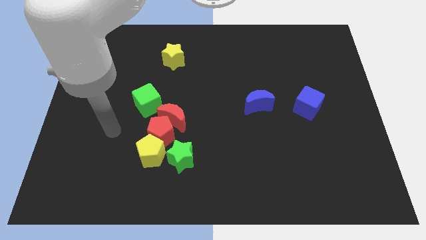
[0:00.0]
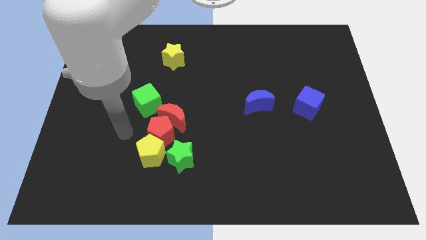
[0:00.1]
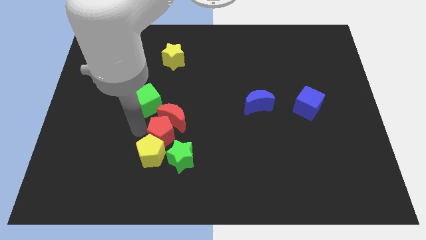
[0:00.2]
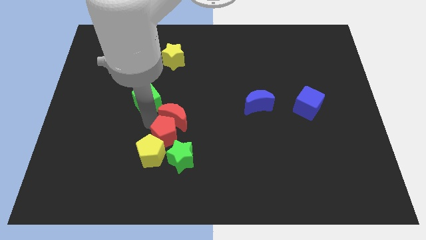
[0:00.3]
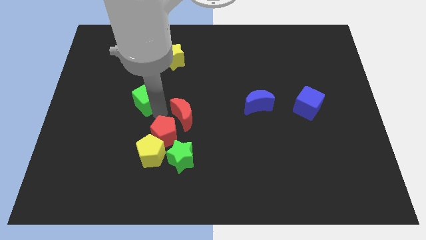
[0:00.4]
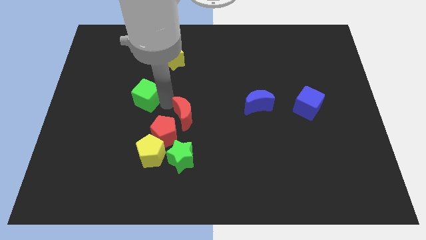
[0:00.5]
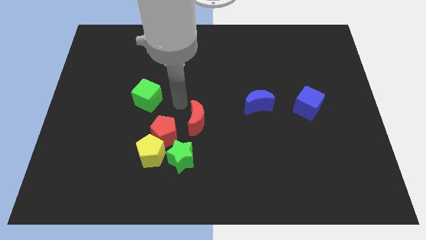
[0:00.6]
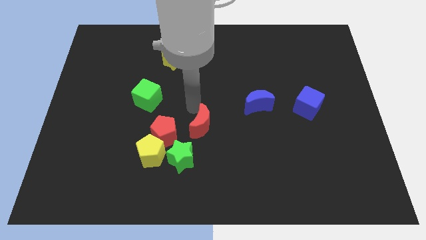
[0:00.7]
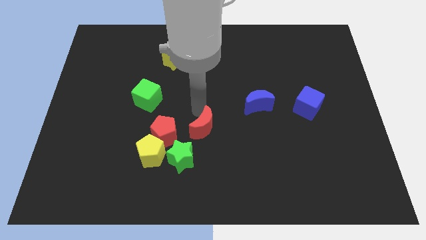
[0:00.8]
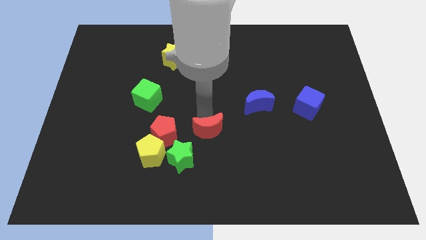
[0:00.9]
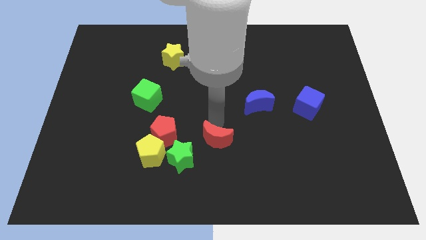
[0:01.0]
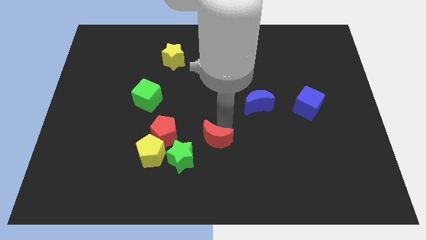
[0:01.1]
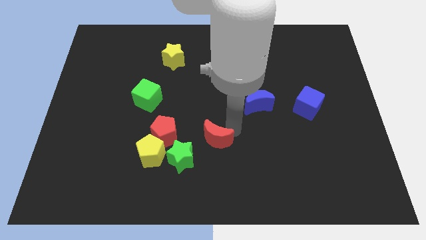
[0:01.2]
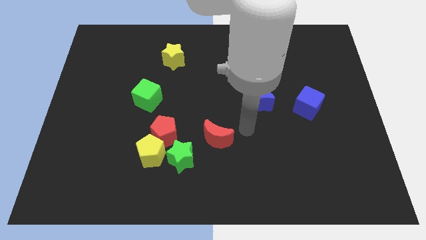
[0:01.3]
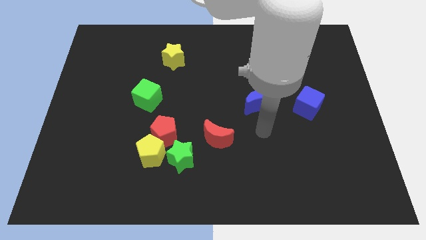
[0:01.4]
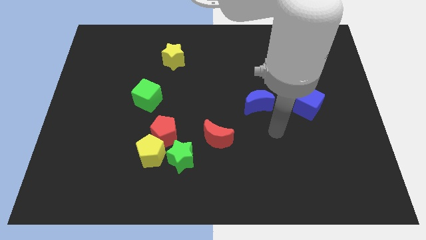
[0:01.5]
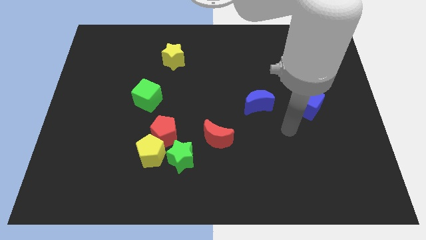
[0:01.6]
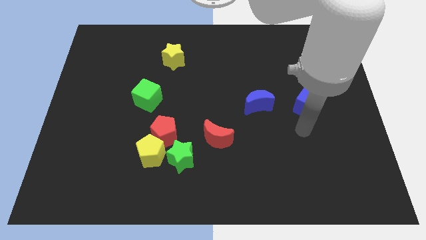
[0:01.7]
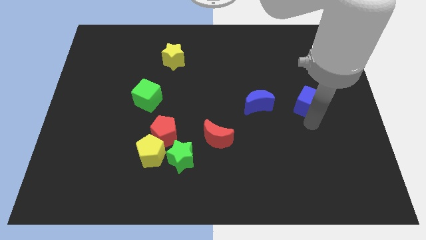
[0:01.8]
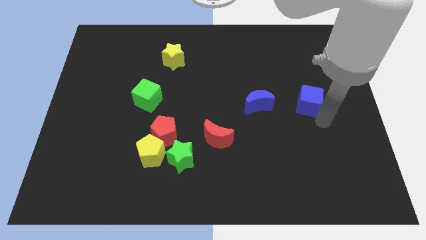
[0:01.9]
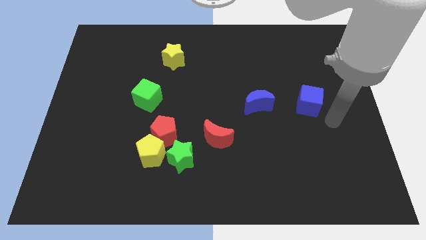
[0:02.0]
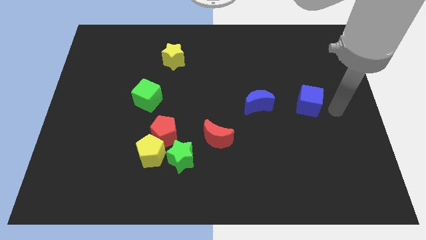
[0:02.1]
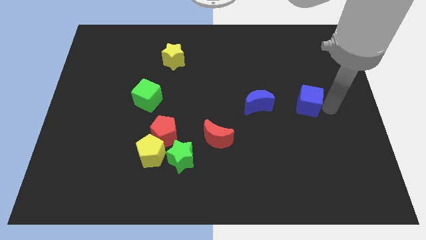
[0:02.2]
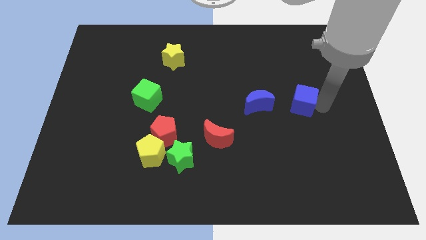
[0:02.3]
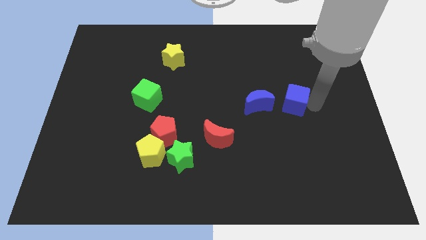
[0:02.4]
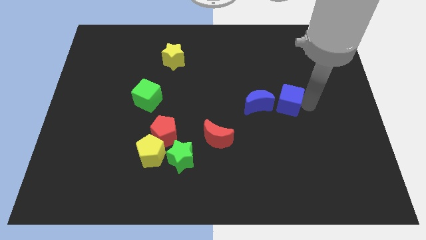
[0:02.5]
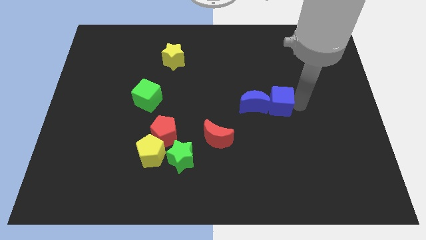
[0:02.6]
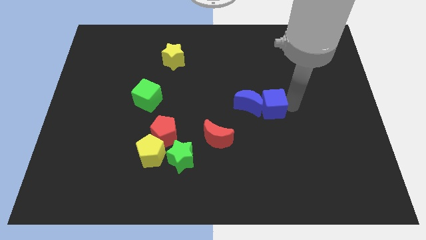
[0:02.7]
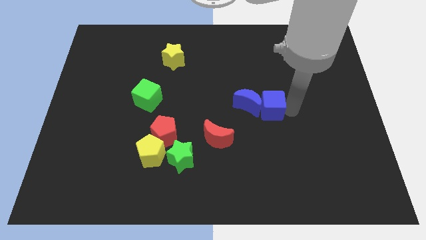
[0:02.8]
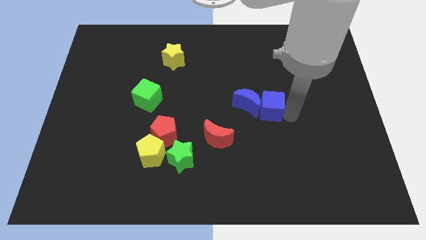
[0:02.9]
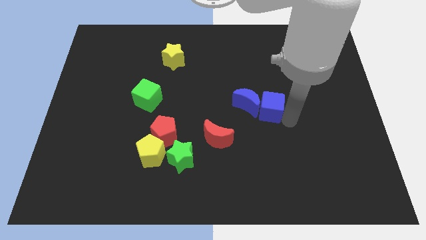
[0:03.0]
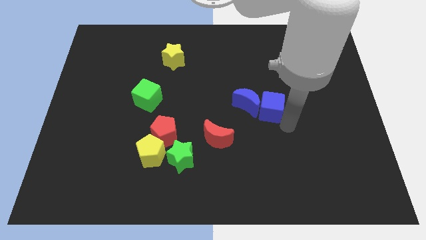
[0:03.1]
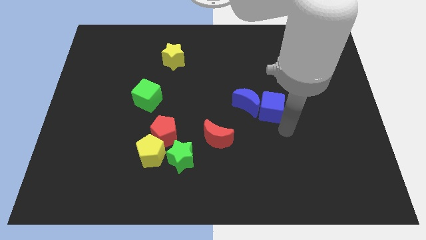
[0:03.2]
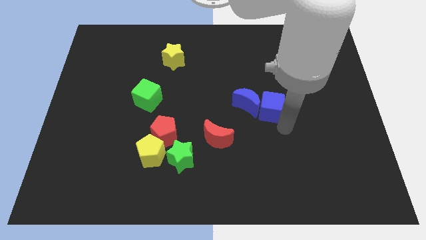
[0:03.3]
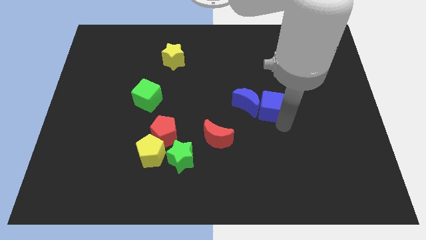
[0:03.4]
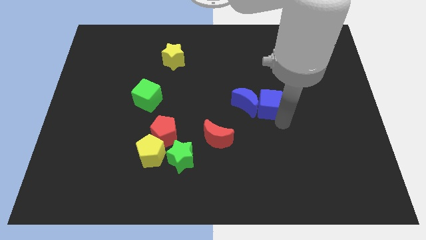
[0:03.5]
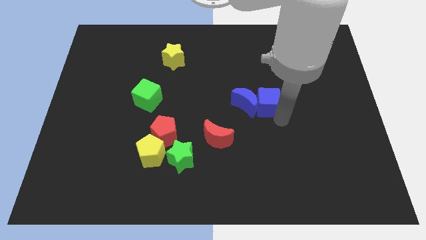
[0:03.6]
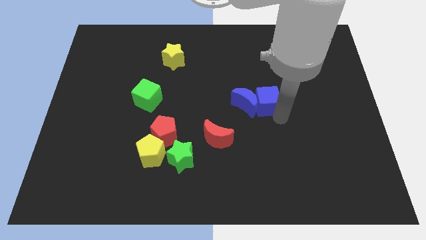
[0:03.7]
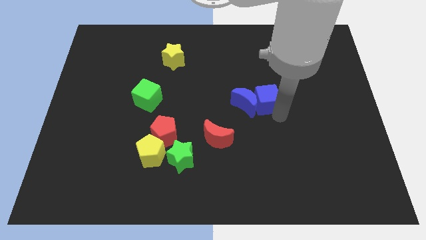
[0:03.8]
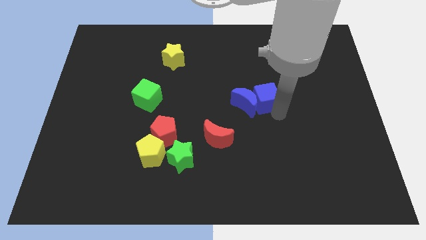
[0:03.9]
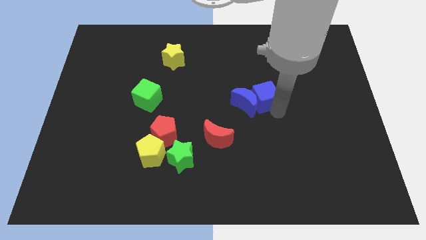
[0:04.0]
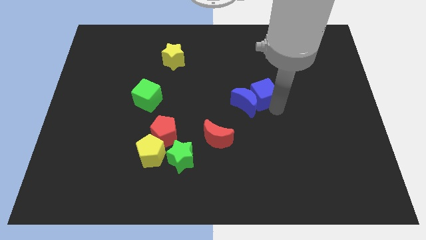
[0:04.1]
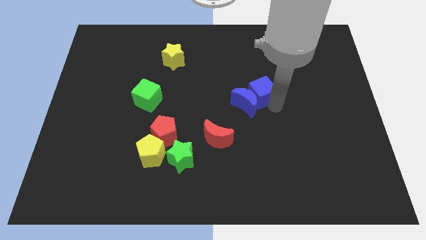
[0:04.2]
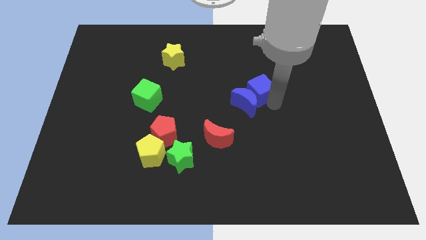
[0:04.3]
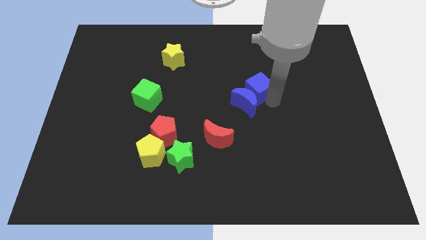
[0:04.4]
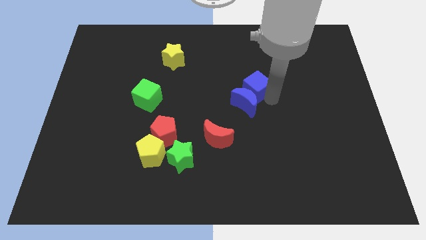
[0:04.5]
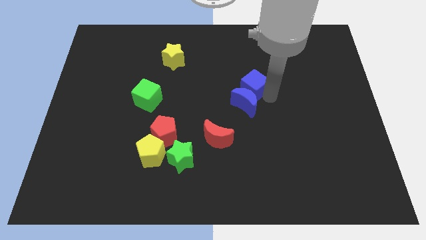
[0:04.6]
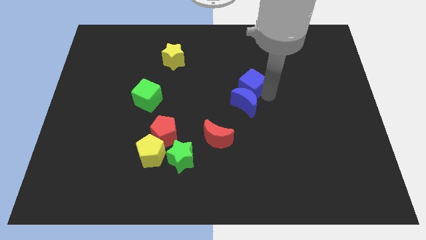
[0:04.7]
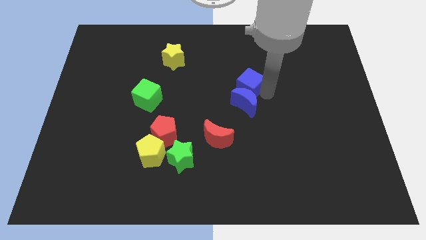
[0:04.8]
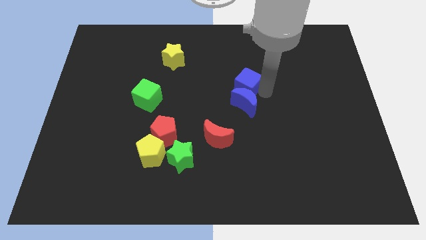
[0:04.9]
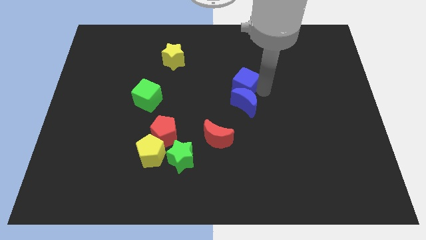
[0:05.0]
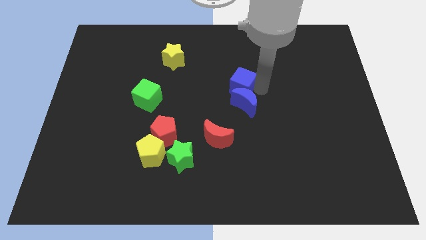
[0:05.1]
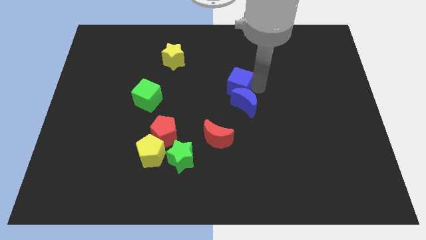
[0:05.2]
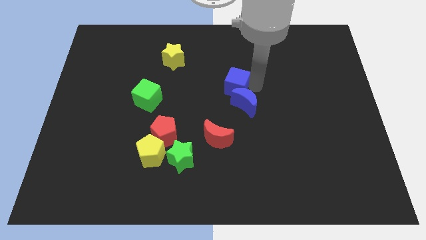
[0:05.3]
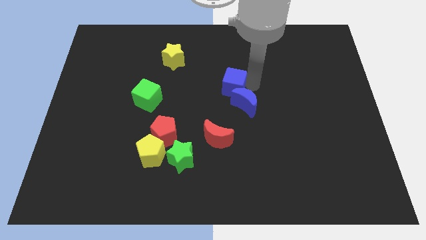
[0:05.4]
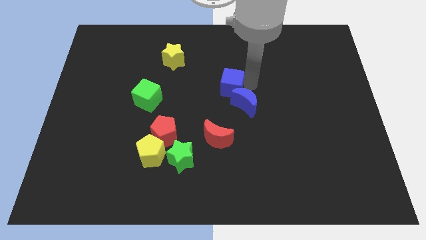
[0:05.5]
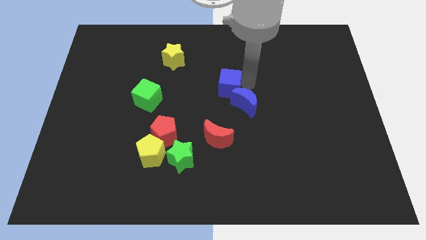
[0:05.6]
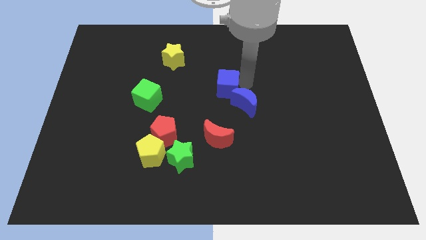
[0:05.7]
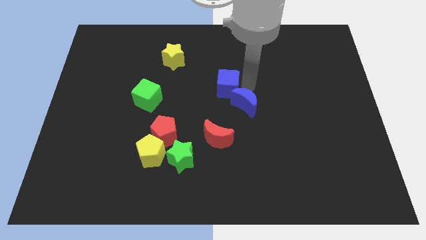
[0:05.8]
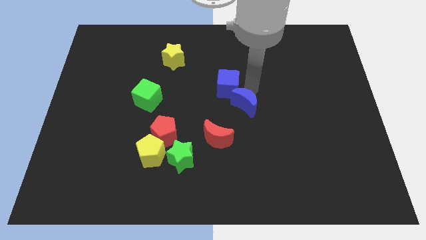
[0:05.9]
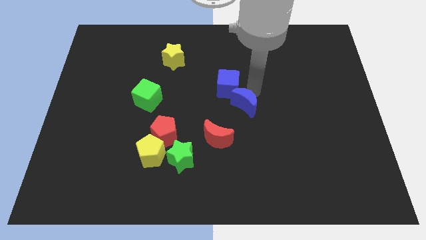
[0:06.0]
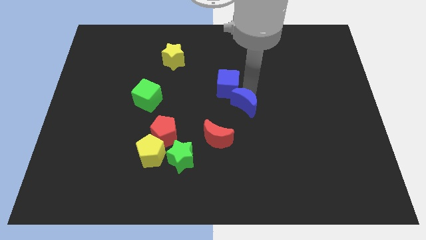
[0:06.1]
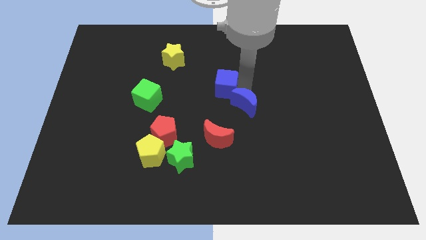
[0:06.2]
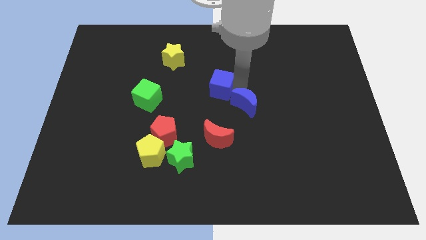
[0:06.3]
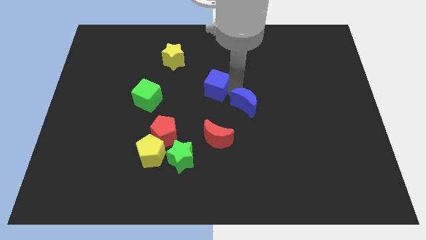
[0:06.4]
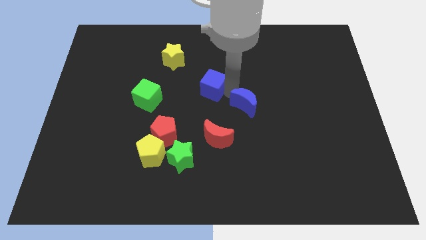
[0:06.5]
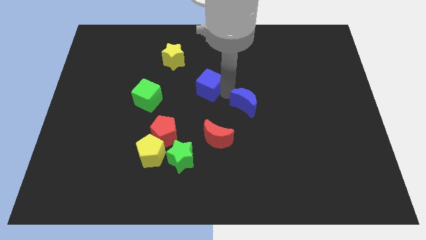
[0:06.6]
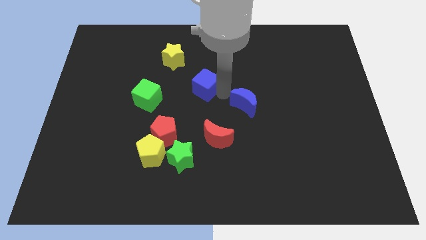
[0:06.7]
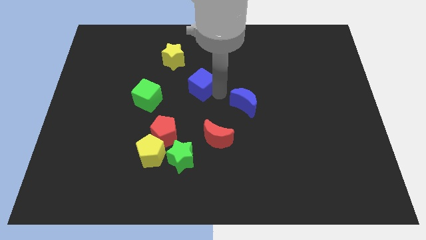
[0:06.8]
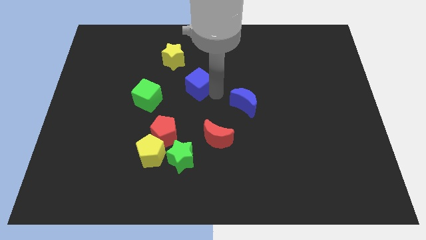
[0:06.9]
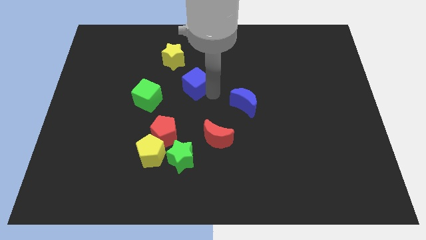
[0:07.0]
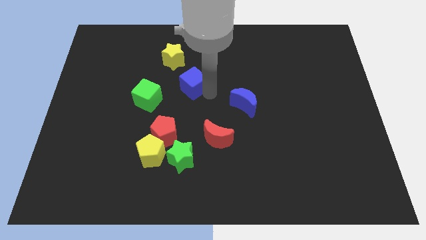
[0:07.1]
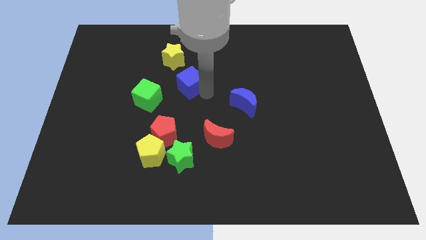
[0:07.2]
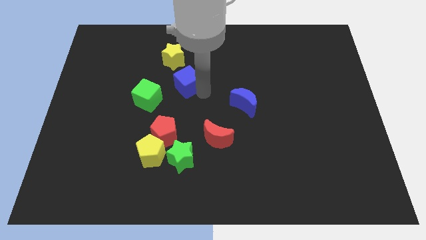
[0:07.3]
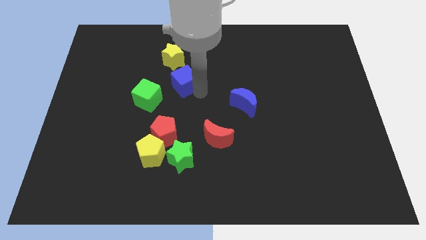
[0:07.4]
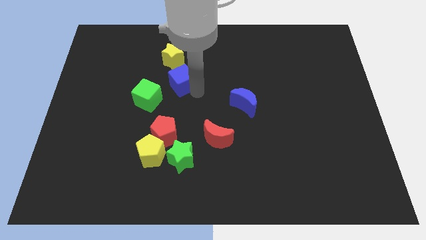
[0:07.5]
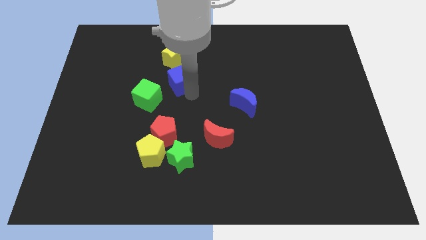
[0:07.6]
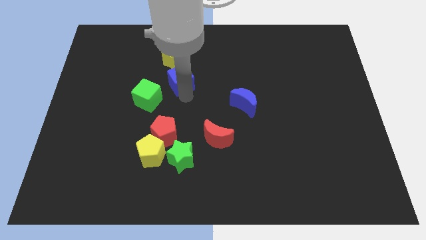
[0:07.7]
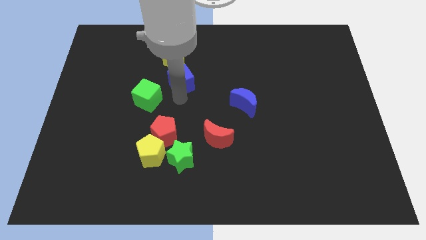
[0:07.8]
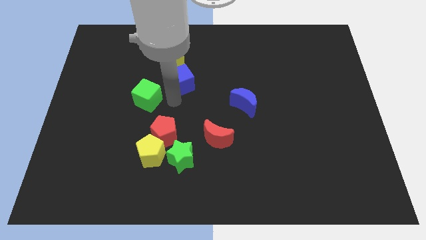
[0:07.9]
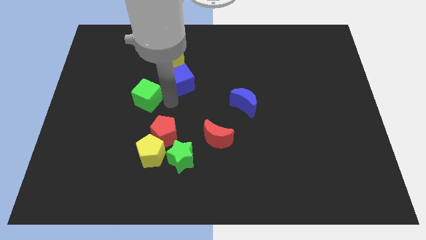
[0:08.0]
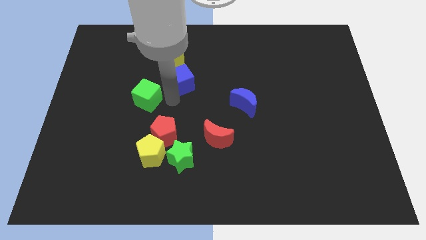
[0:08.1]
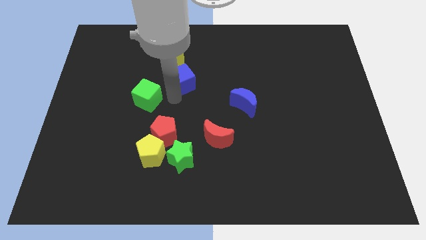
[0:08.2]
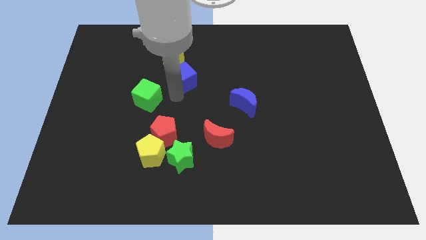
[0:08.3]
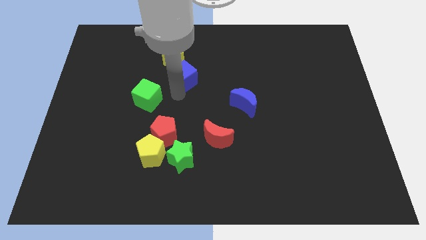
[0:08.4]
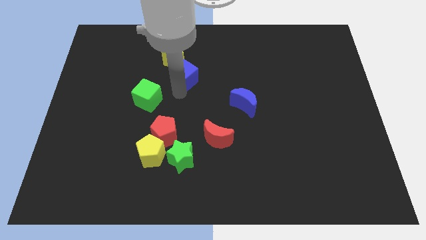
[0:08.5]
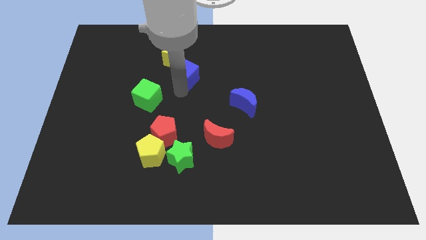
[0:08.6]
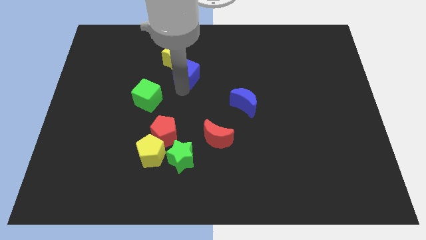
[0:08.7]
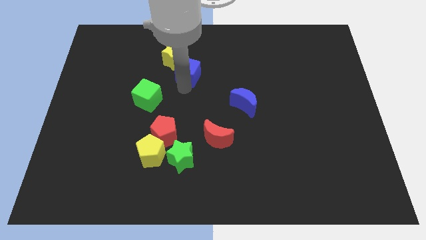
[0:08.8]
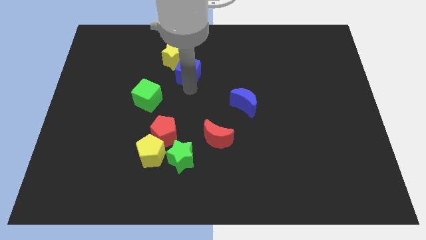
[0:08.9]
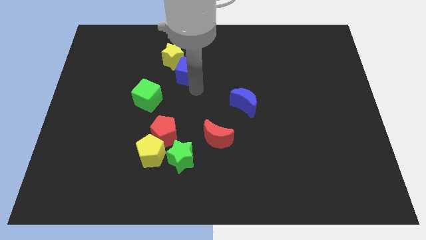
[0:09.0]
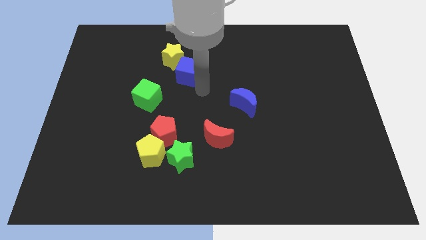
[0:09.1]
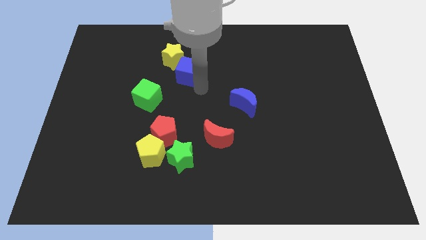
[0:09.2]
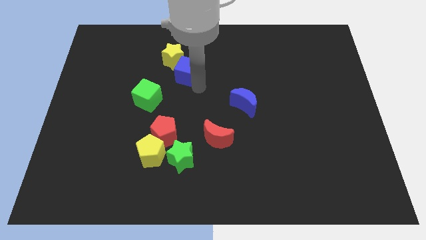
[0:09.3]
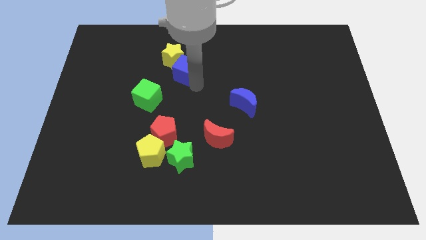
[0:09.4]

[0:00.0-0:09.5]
put the blue cube close to the yellow star
